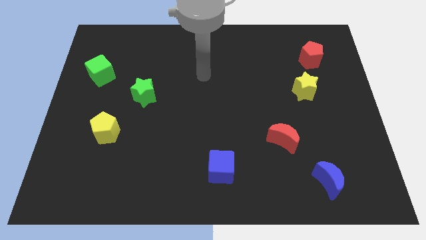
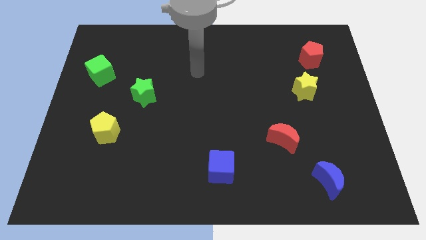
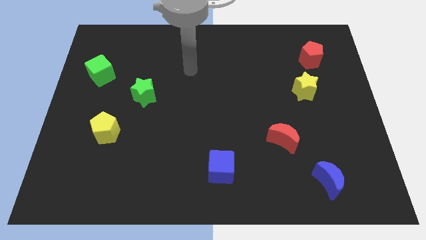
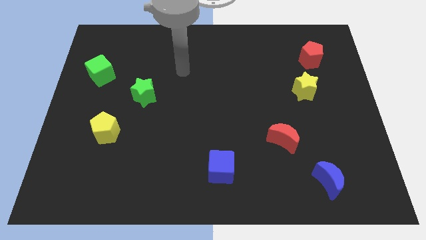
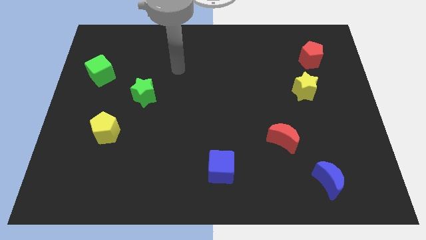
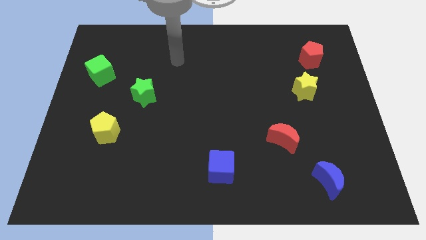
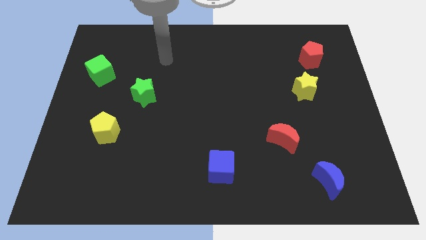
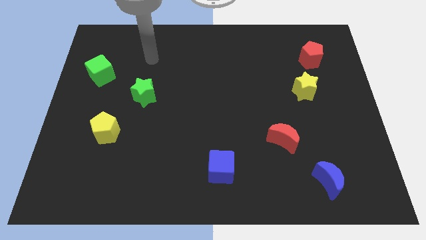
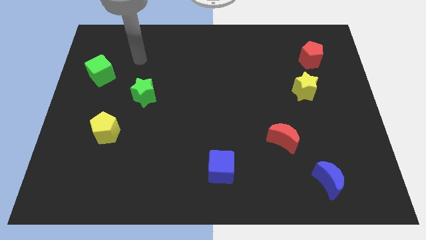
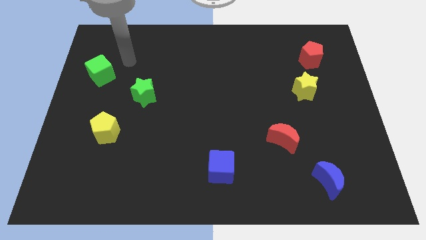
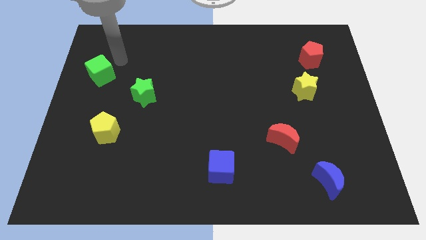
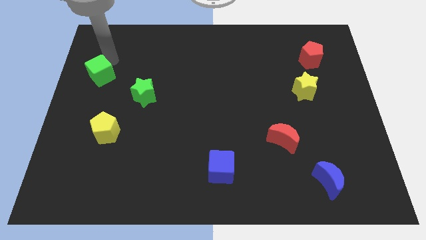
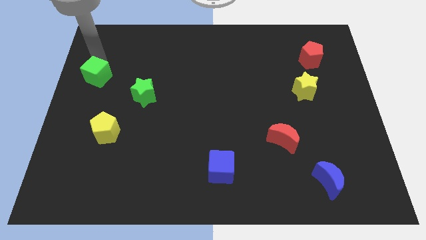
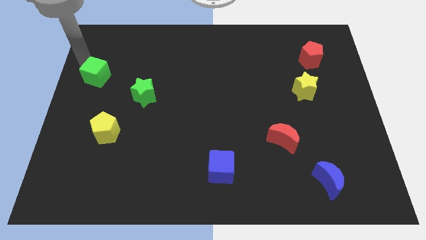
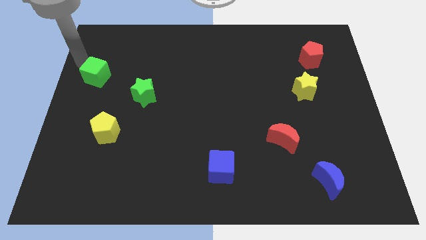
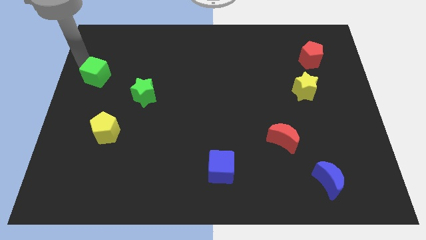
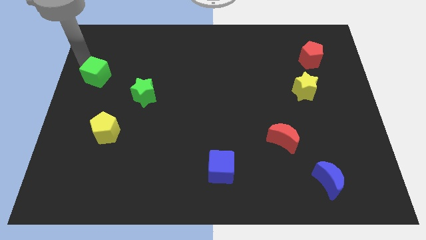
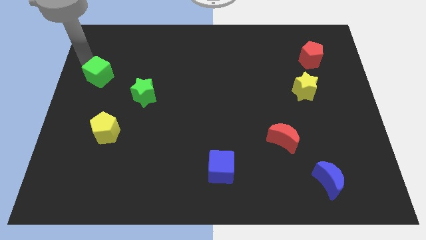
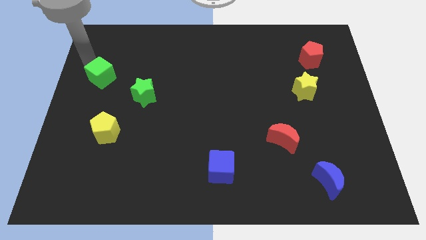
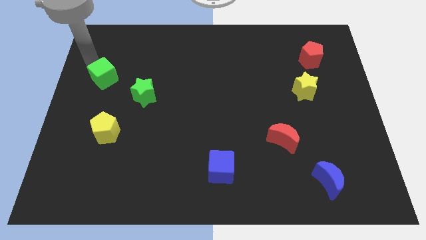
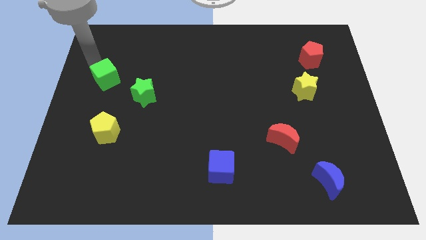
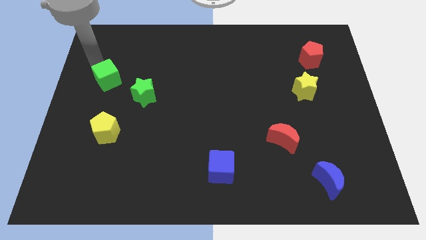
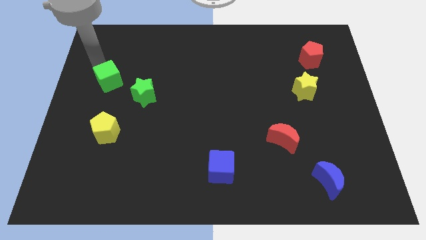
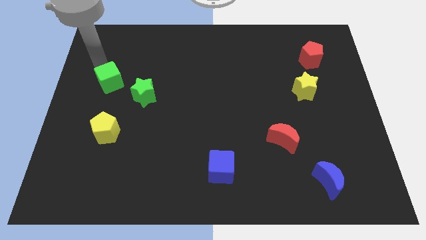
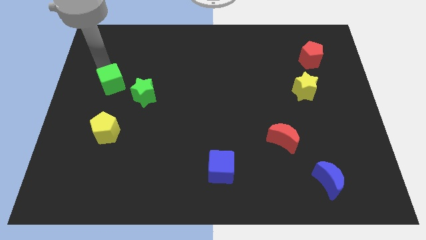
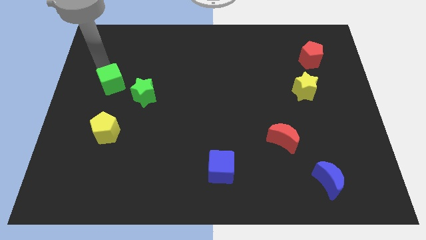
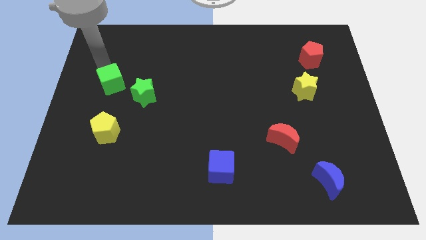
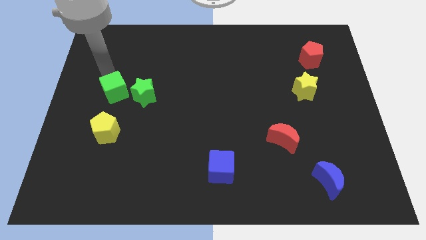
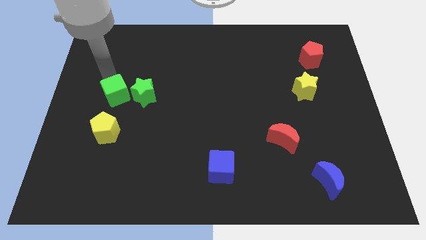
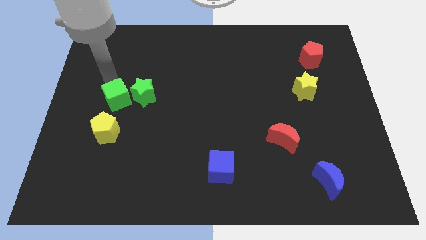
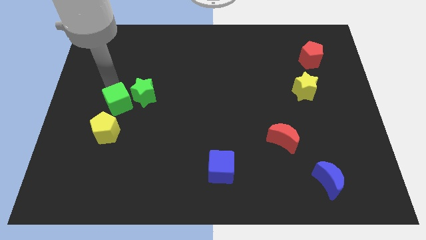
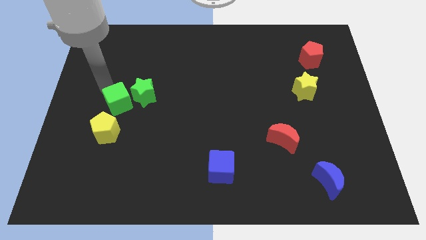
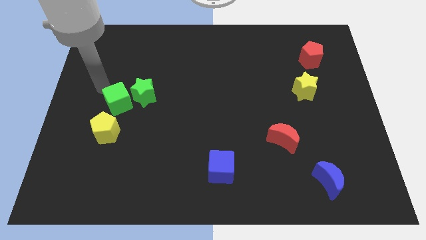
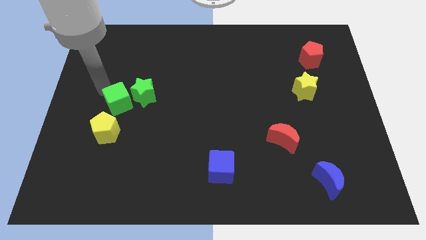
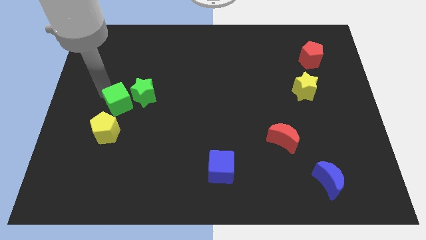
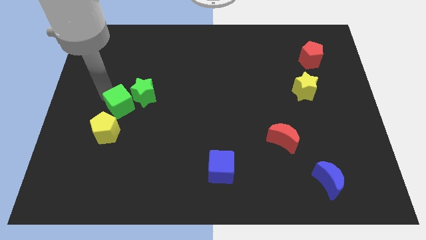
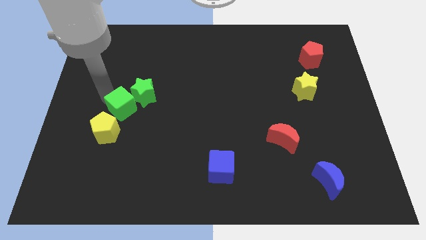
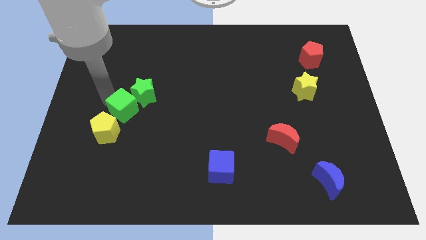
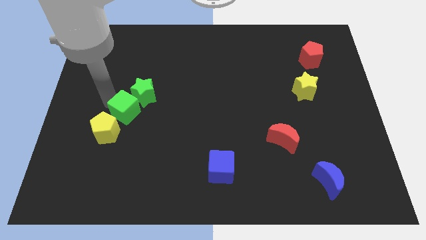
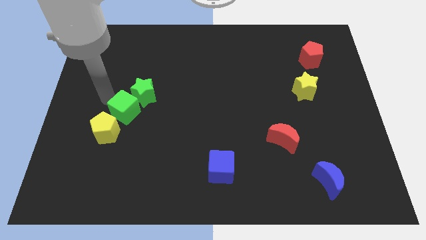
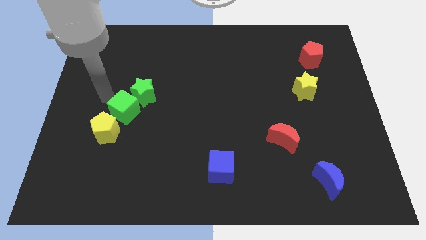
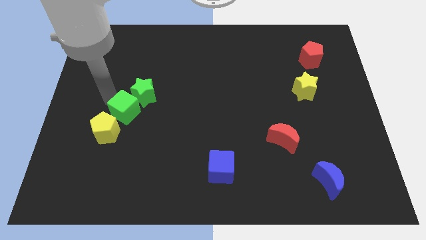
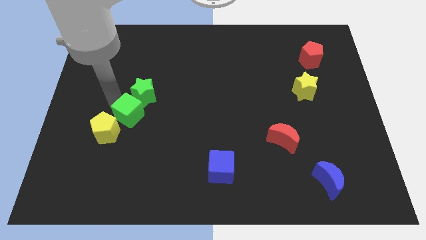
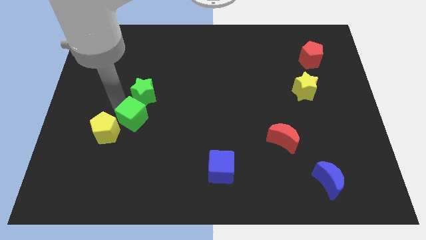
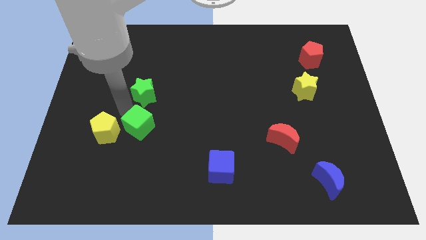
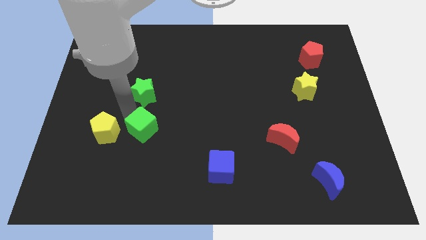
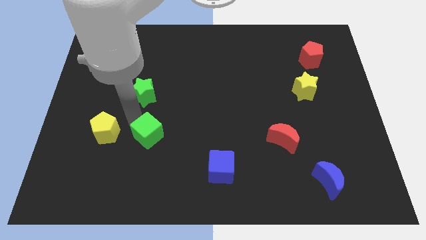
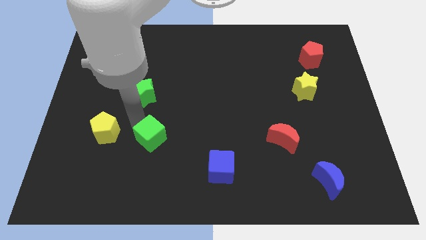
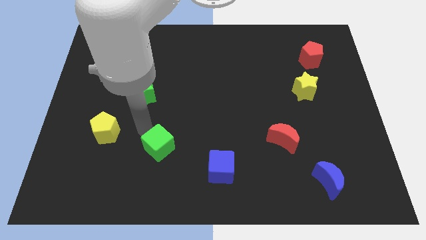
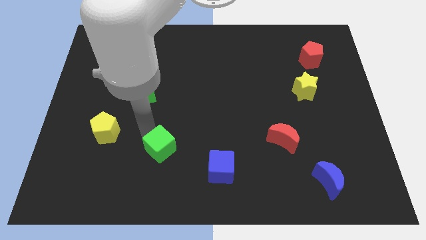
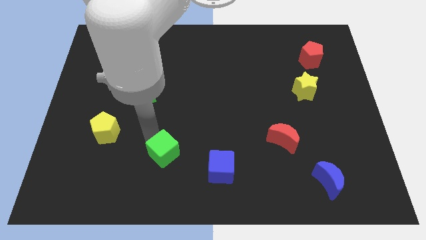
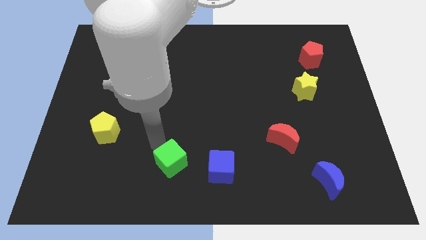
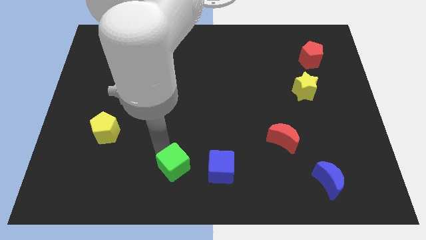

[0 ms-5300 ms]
move the green cube to the bottom side
